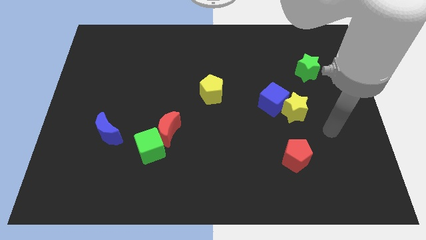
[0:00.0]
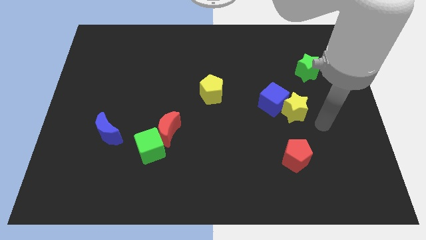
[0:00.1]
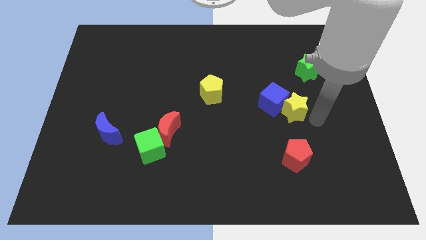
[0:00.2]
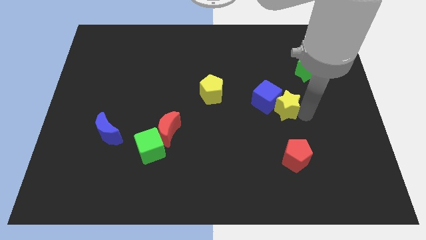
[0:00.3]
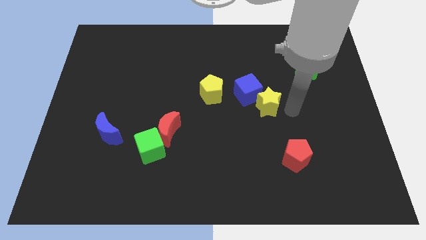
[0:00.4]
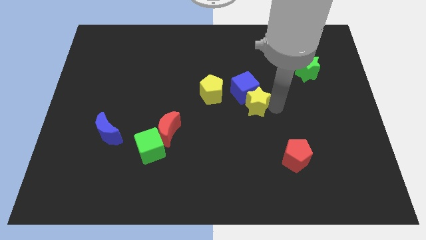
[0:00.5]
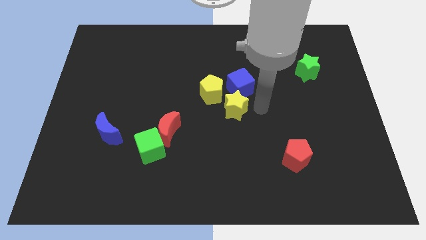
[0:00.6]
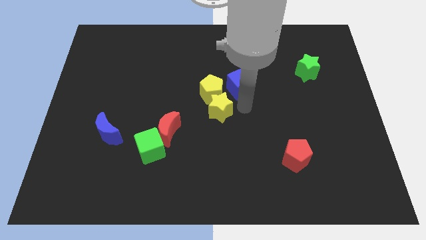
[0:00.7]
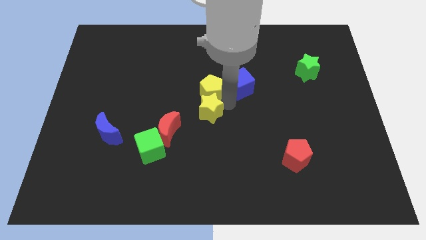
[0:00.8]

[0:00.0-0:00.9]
separate the blue cube from the yellow star

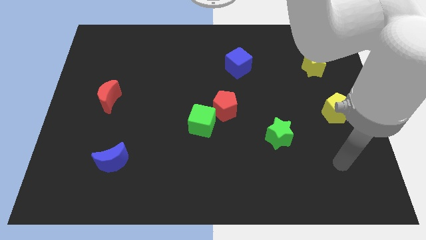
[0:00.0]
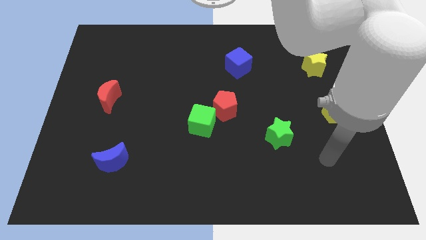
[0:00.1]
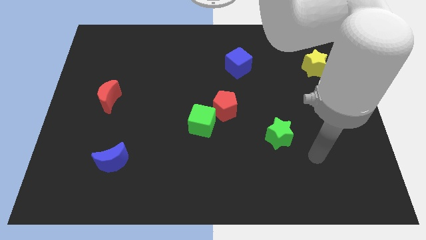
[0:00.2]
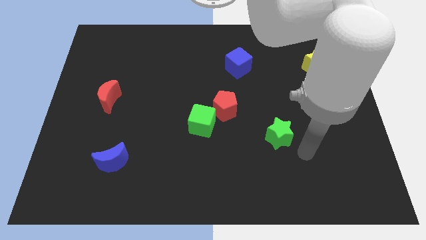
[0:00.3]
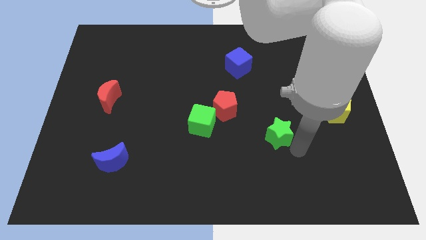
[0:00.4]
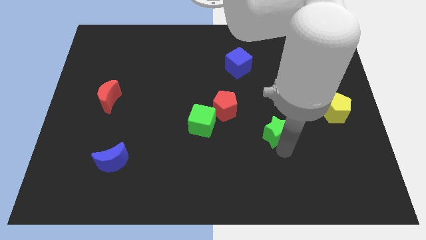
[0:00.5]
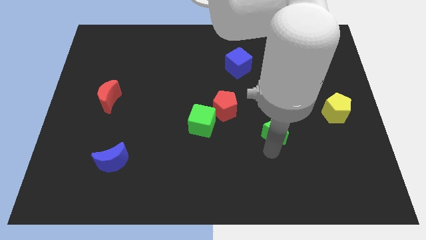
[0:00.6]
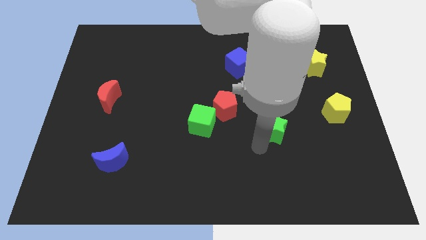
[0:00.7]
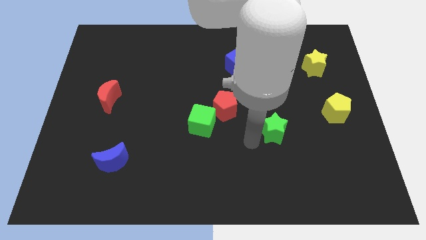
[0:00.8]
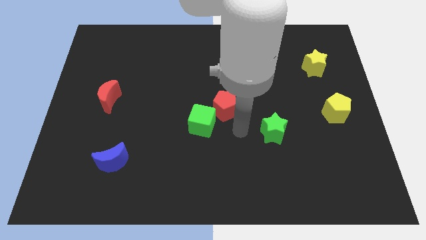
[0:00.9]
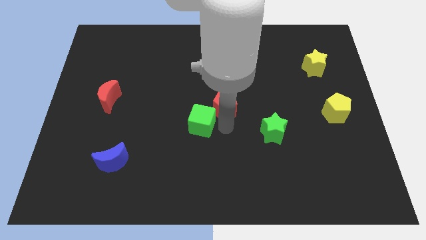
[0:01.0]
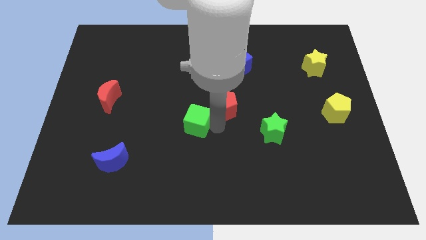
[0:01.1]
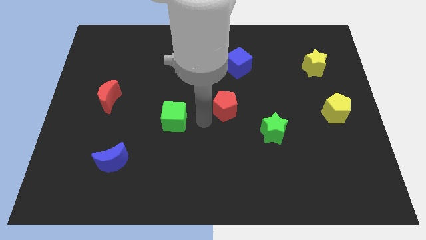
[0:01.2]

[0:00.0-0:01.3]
move the red pentagon away from the green cube

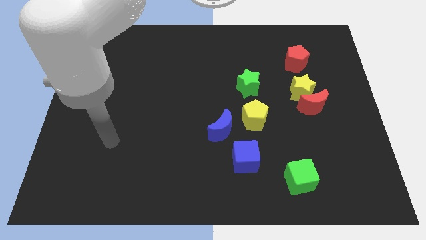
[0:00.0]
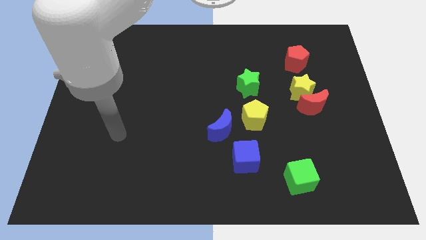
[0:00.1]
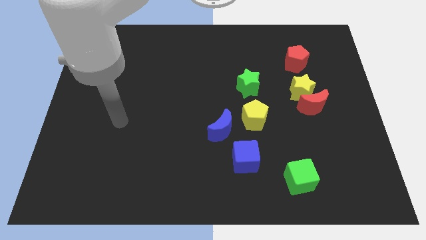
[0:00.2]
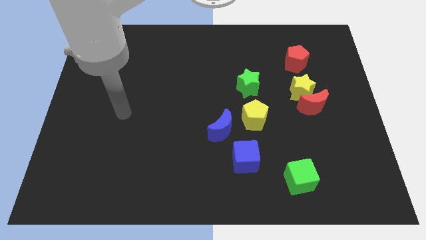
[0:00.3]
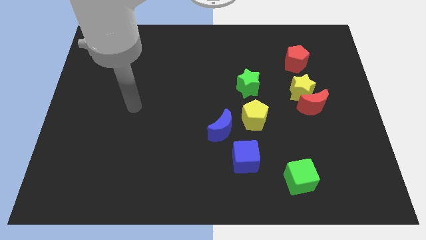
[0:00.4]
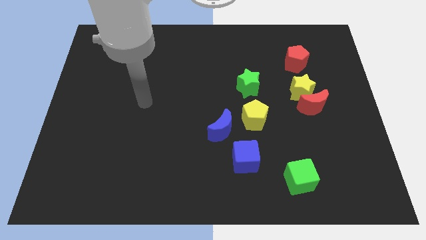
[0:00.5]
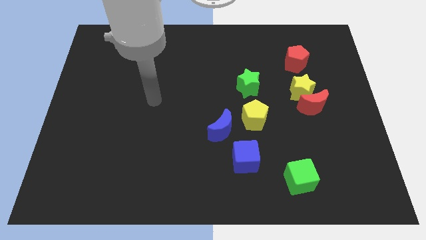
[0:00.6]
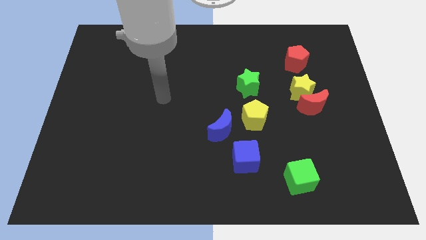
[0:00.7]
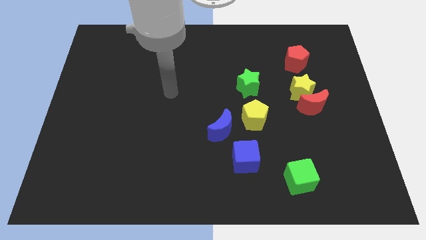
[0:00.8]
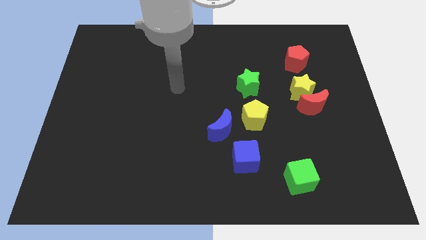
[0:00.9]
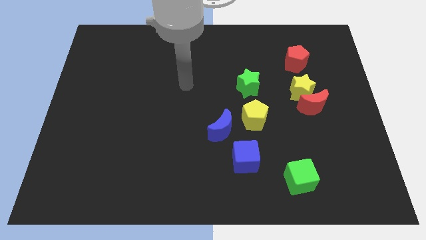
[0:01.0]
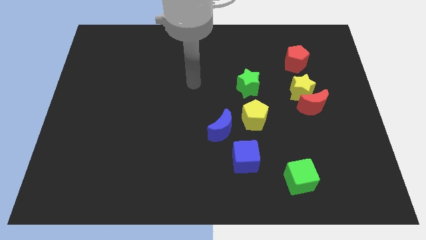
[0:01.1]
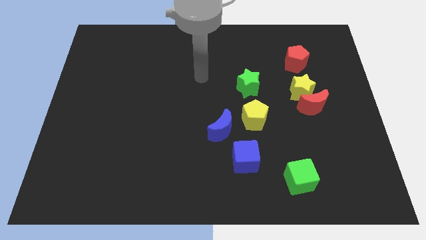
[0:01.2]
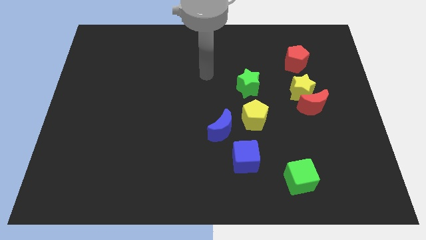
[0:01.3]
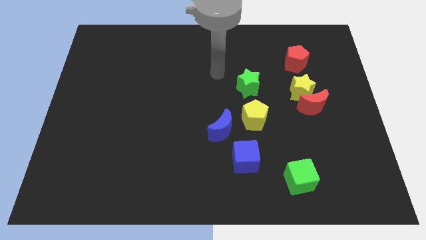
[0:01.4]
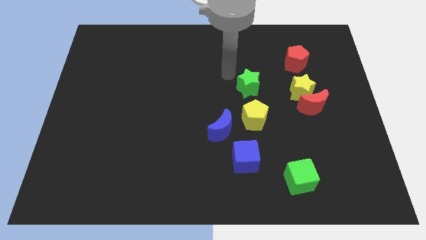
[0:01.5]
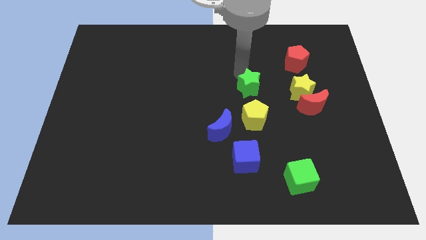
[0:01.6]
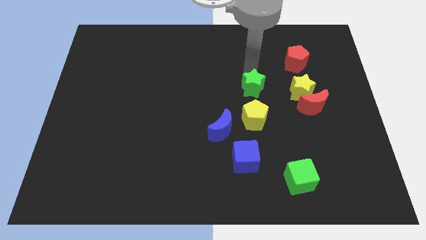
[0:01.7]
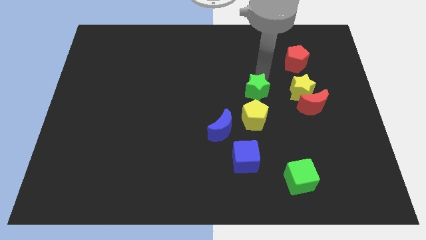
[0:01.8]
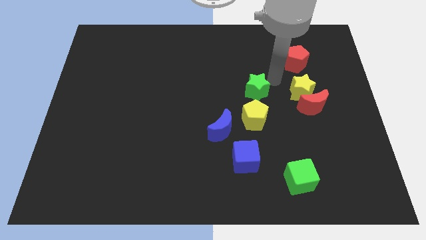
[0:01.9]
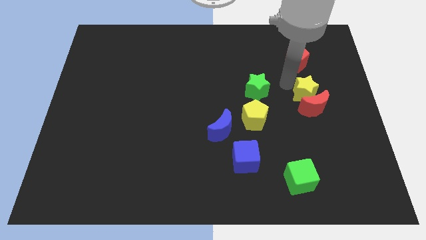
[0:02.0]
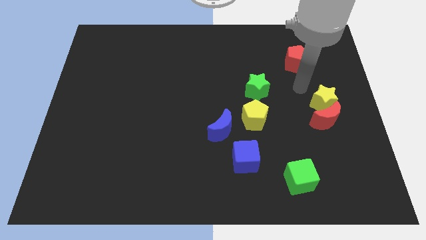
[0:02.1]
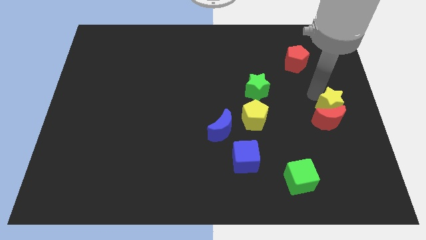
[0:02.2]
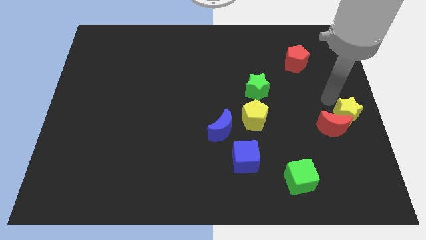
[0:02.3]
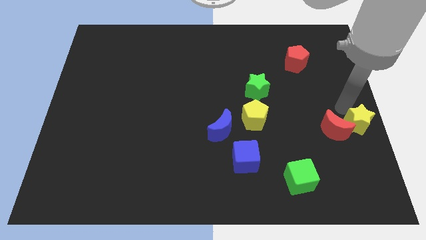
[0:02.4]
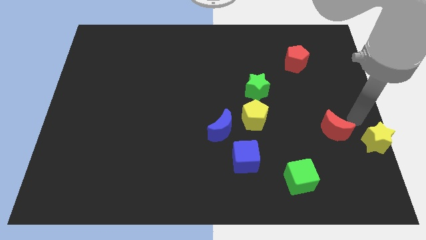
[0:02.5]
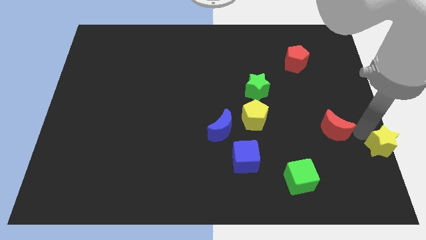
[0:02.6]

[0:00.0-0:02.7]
move the red moon away from the yellow star

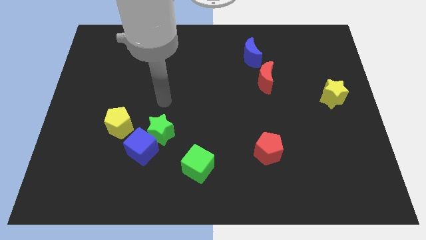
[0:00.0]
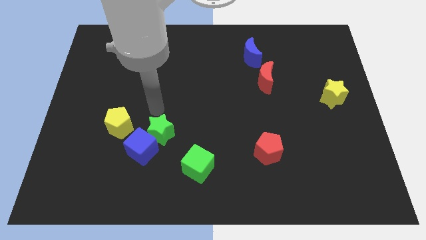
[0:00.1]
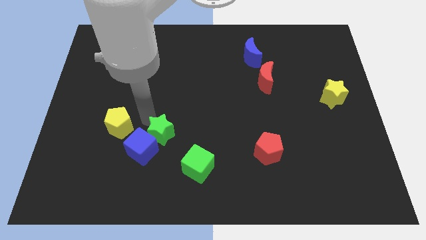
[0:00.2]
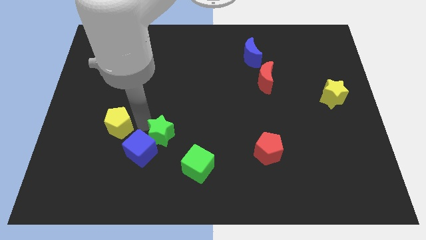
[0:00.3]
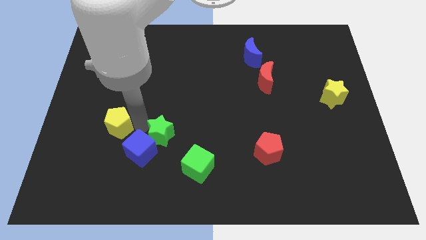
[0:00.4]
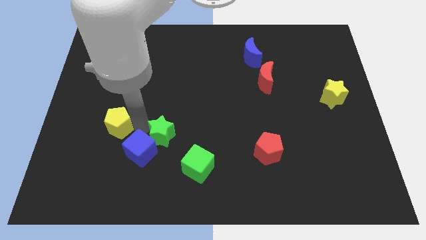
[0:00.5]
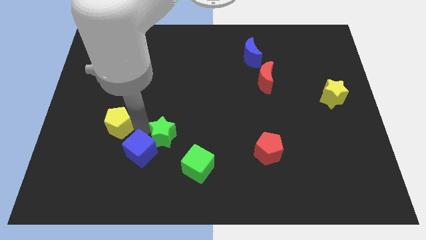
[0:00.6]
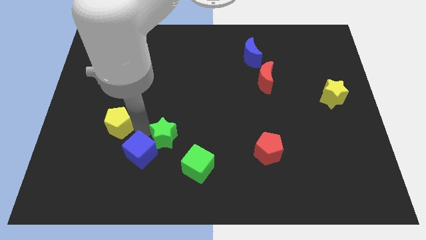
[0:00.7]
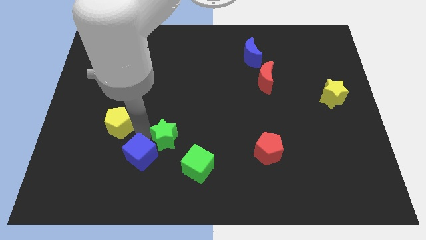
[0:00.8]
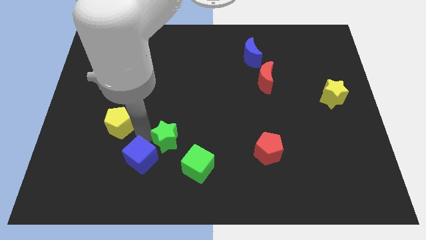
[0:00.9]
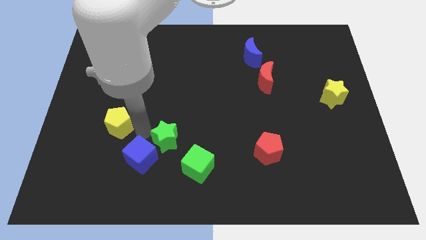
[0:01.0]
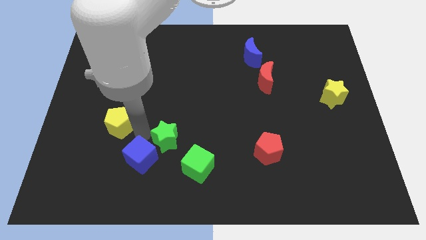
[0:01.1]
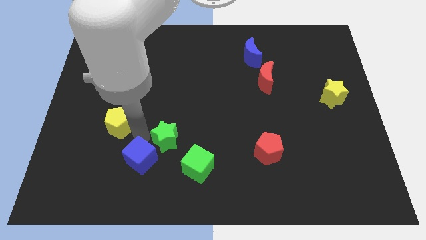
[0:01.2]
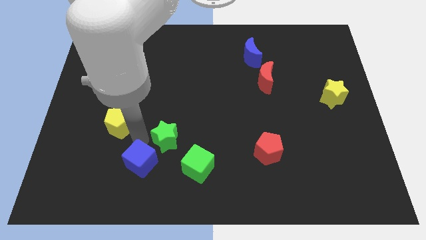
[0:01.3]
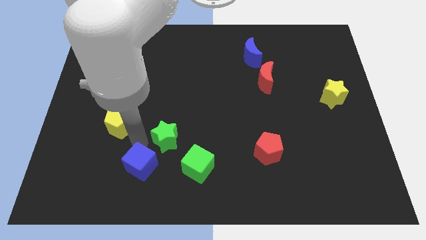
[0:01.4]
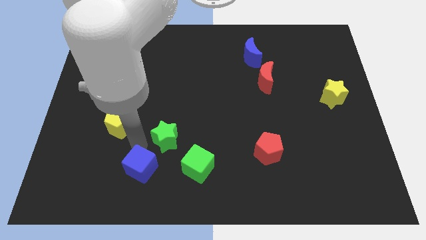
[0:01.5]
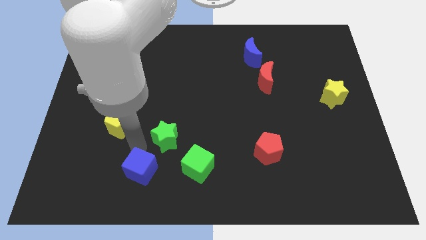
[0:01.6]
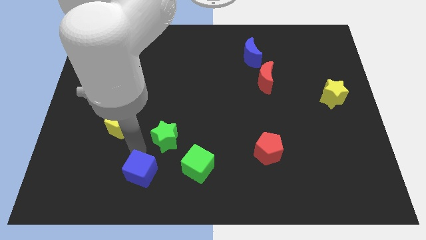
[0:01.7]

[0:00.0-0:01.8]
separate the blue cube from the green star and yellow pentagon

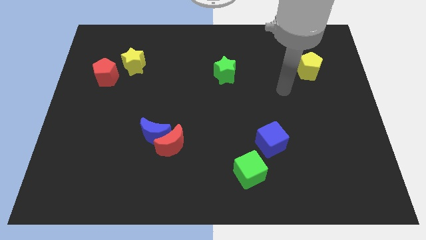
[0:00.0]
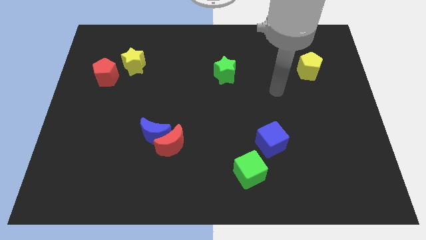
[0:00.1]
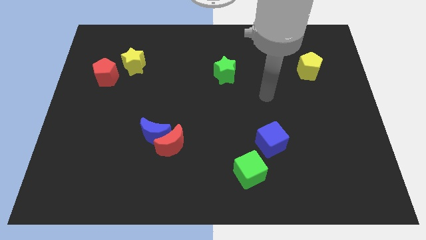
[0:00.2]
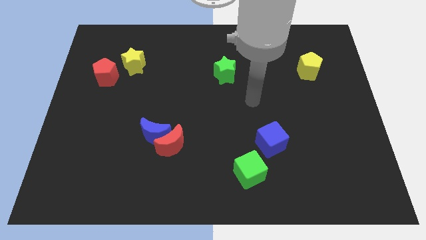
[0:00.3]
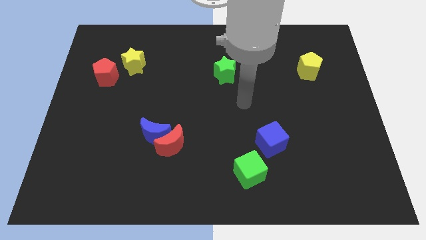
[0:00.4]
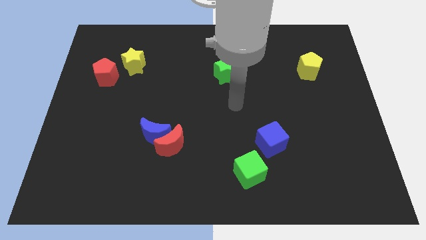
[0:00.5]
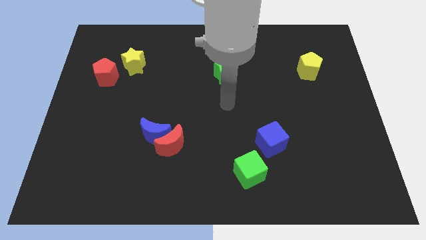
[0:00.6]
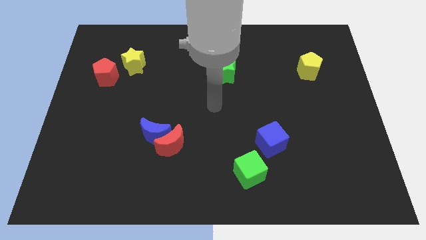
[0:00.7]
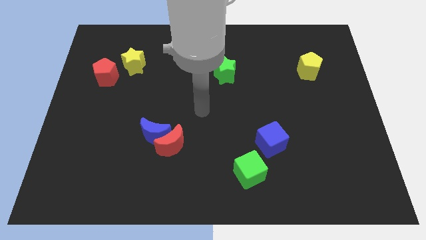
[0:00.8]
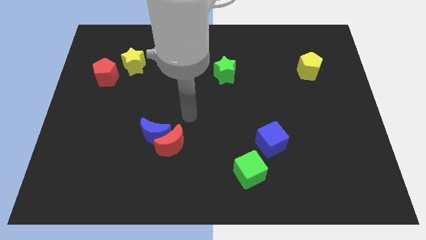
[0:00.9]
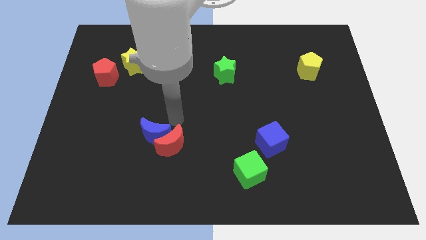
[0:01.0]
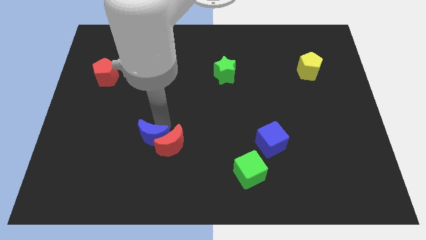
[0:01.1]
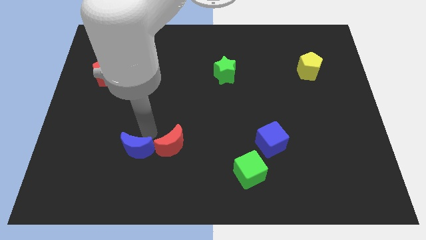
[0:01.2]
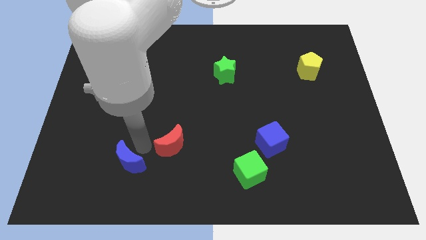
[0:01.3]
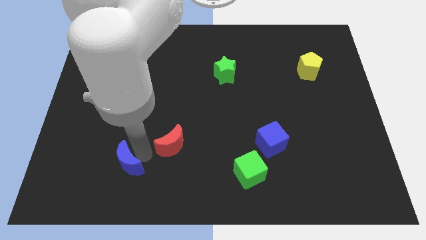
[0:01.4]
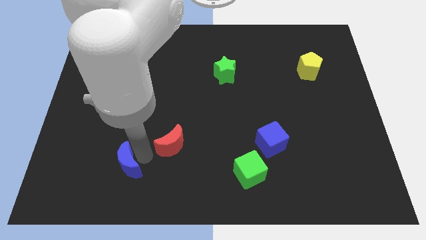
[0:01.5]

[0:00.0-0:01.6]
pull the red moon apart from the blue moon

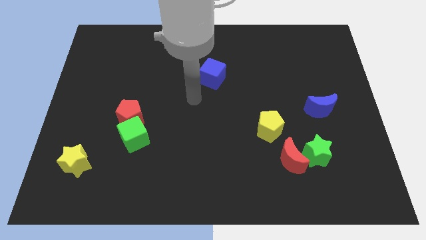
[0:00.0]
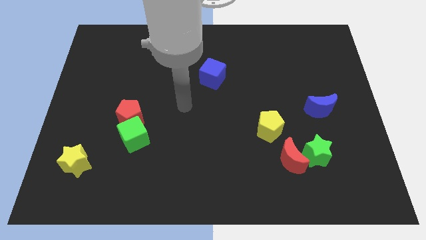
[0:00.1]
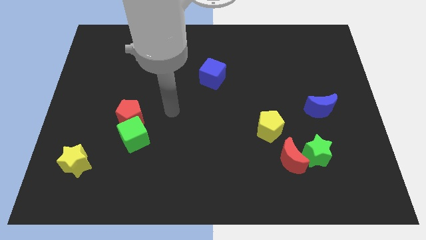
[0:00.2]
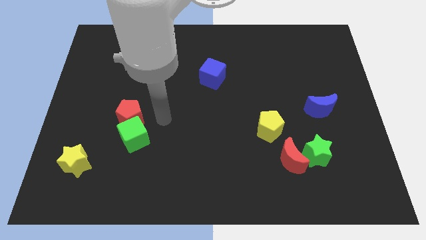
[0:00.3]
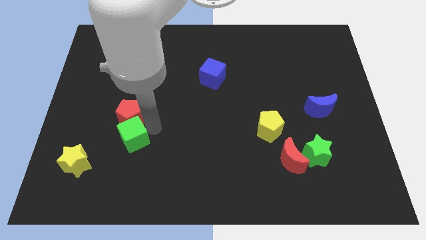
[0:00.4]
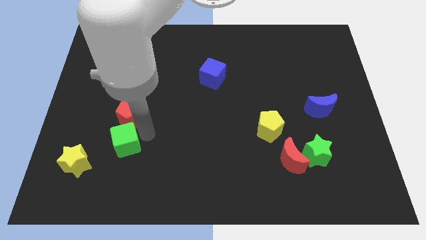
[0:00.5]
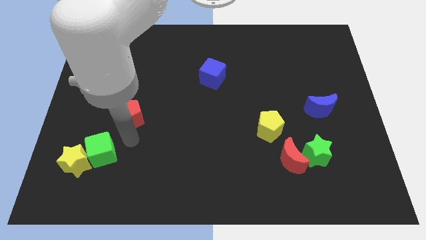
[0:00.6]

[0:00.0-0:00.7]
pull the red pentagon apart from the green cube
